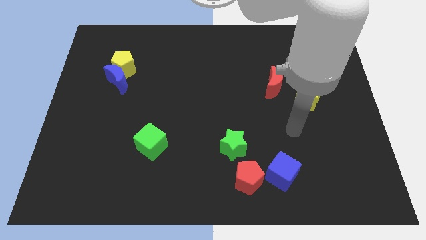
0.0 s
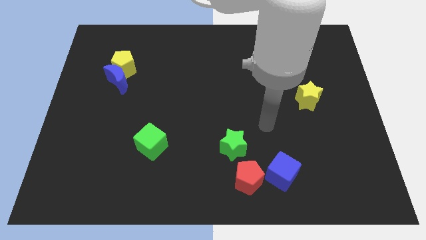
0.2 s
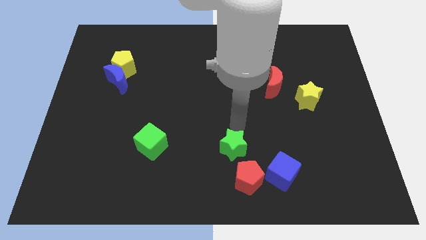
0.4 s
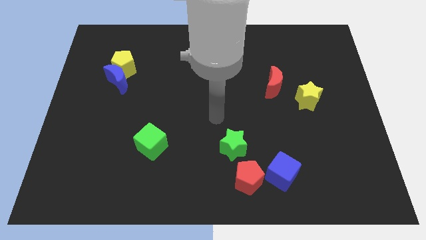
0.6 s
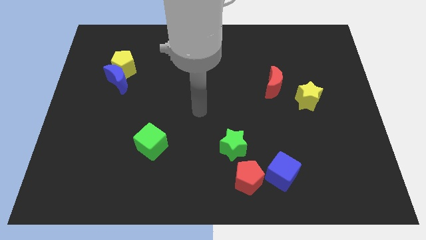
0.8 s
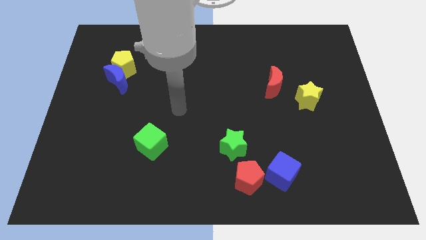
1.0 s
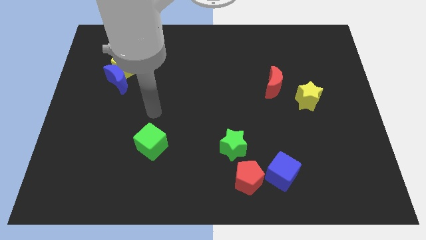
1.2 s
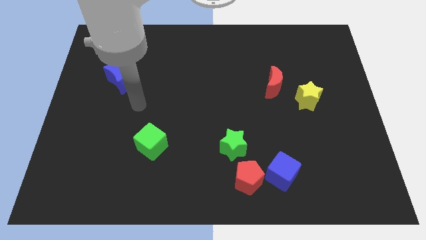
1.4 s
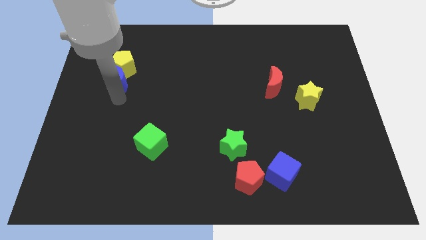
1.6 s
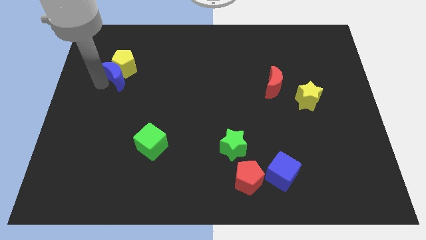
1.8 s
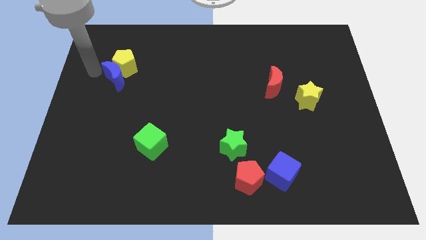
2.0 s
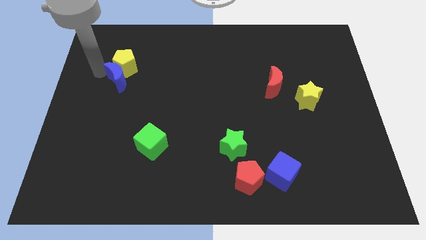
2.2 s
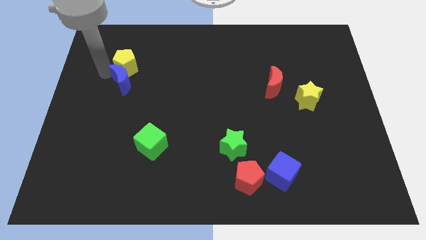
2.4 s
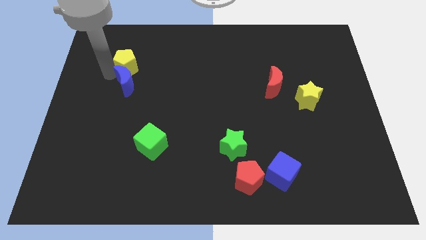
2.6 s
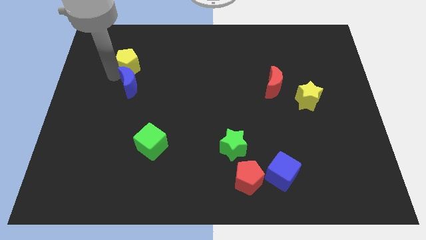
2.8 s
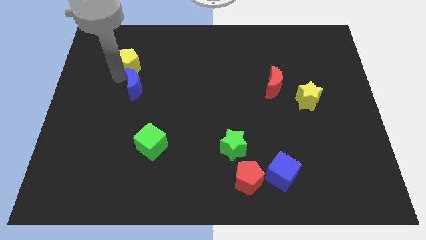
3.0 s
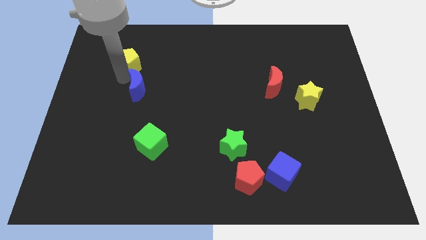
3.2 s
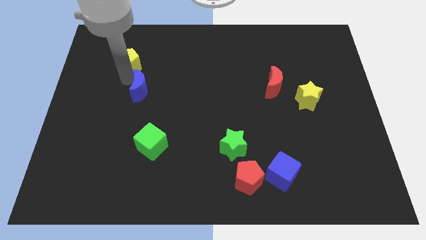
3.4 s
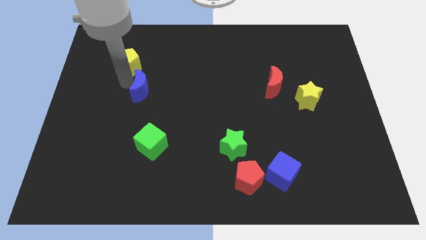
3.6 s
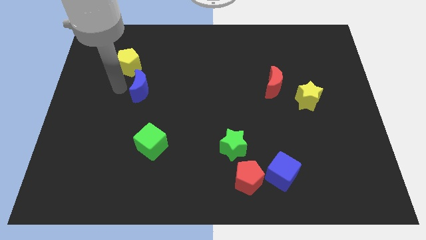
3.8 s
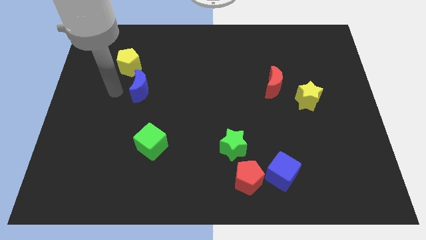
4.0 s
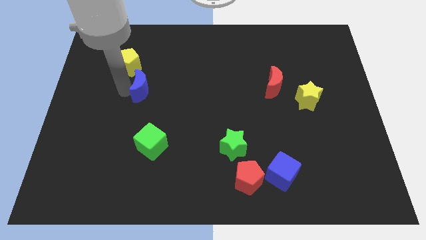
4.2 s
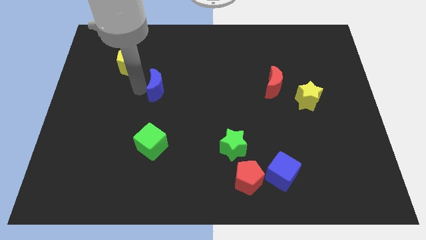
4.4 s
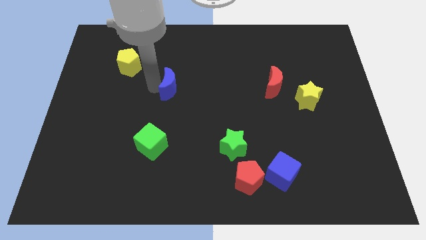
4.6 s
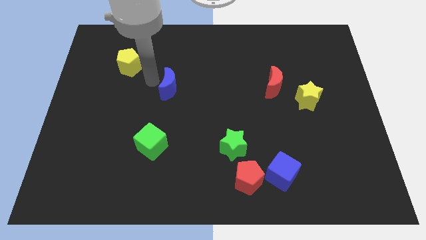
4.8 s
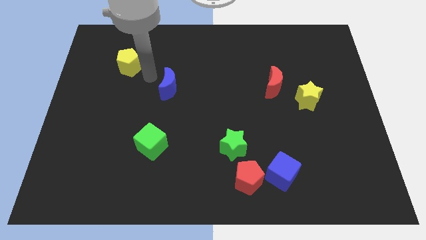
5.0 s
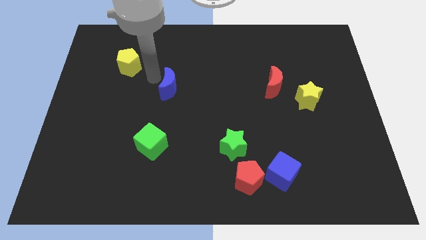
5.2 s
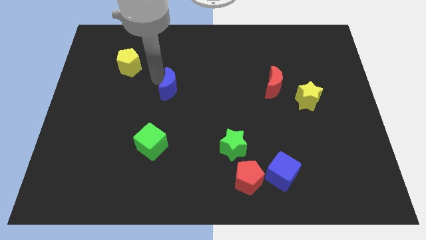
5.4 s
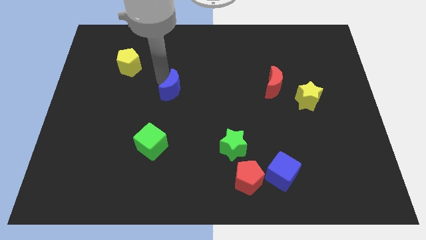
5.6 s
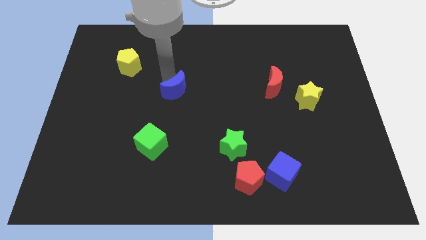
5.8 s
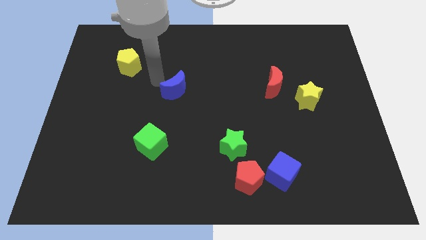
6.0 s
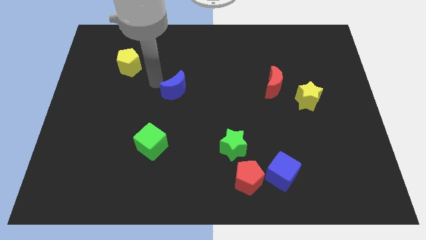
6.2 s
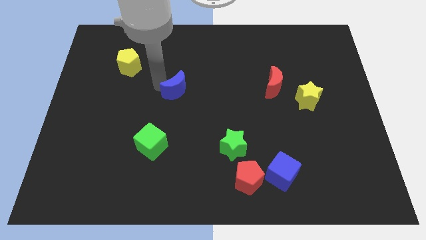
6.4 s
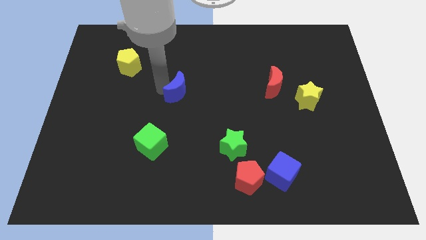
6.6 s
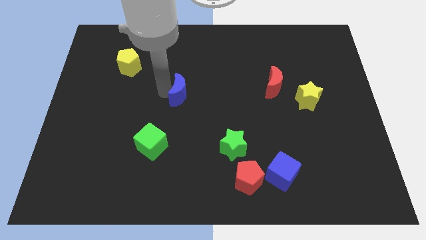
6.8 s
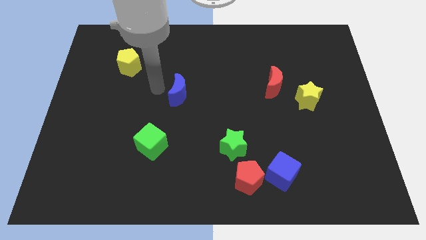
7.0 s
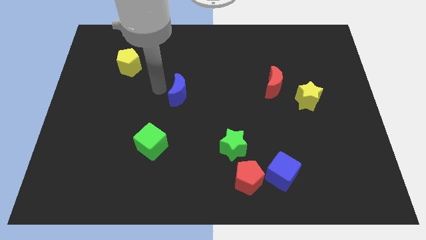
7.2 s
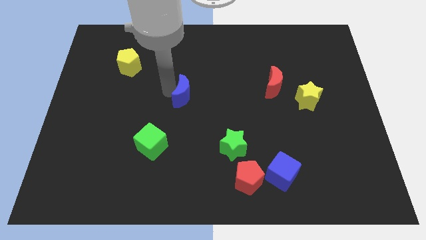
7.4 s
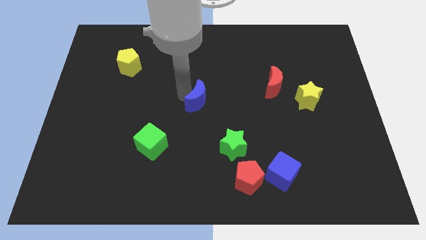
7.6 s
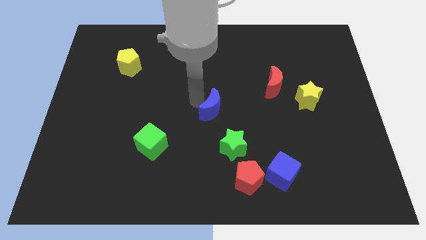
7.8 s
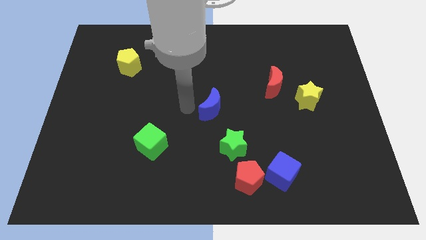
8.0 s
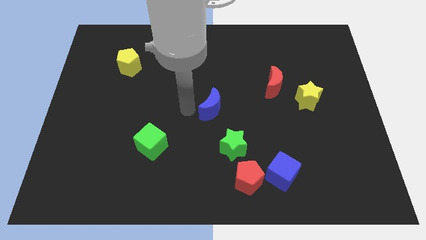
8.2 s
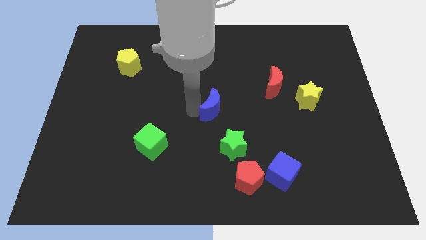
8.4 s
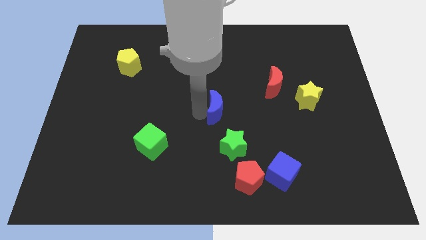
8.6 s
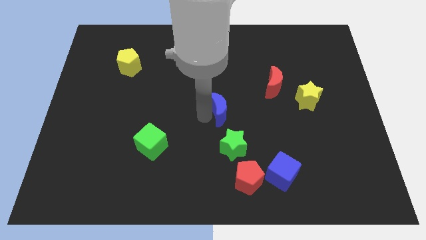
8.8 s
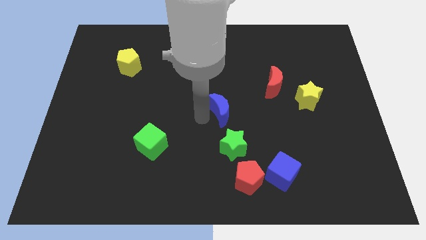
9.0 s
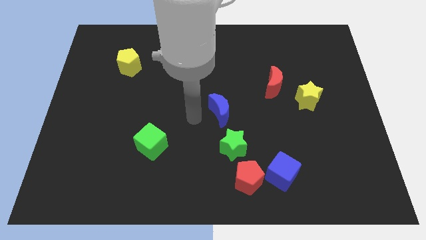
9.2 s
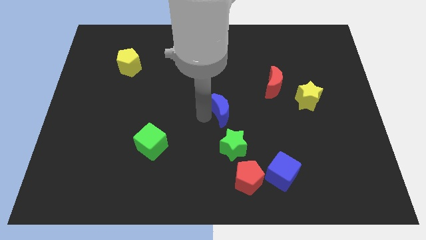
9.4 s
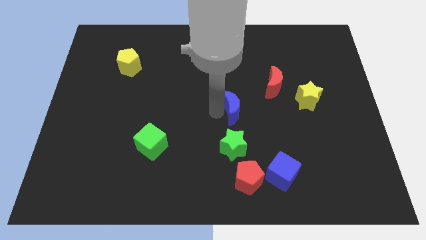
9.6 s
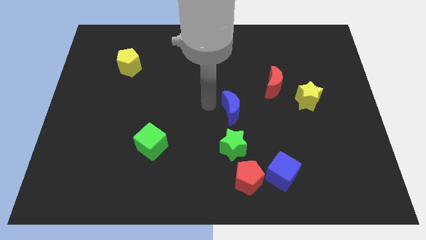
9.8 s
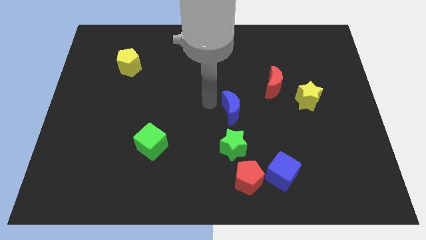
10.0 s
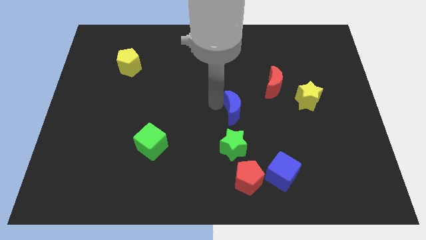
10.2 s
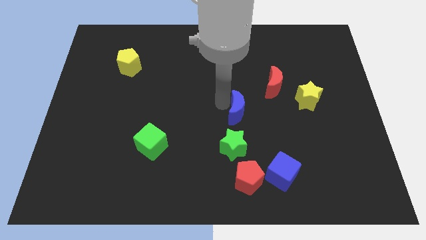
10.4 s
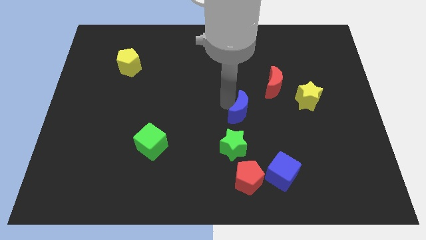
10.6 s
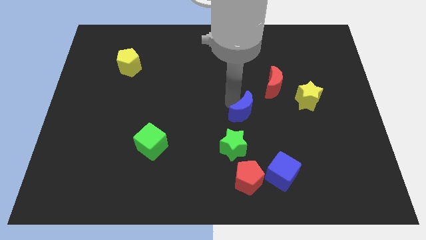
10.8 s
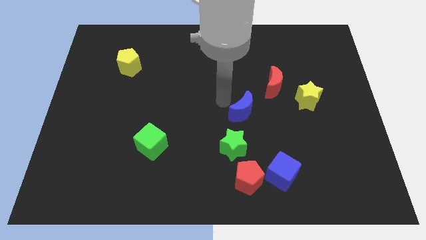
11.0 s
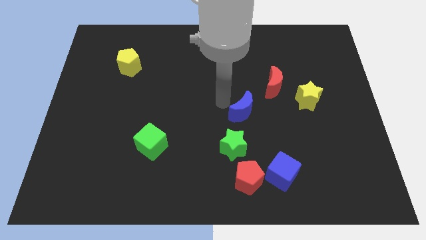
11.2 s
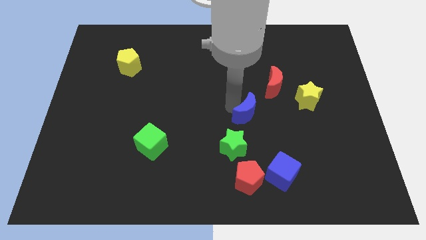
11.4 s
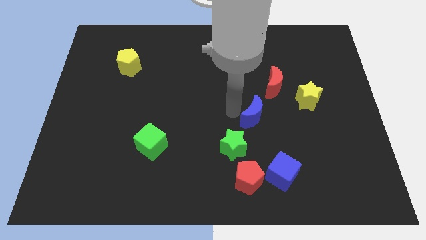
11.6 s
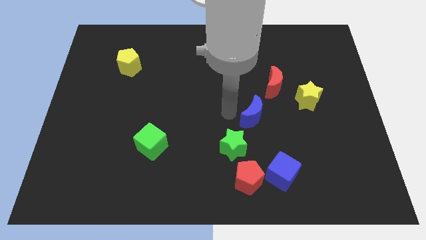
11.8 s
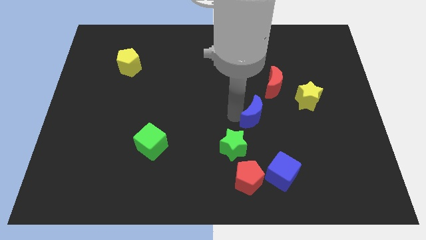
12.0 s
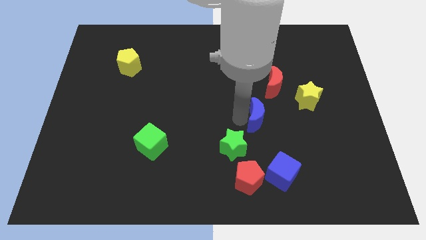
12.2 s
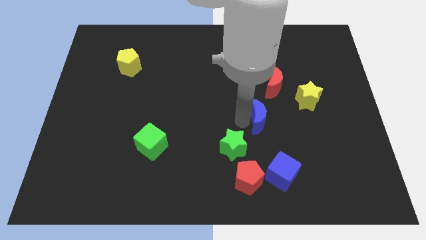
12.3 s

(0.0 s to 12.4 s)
push the blue moon to the bottom side of the red moon

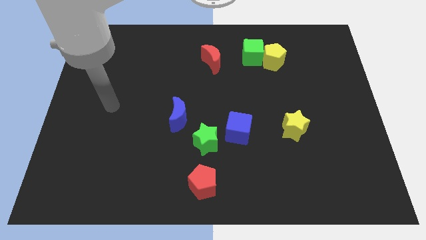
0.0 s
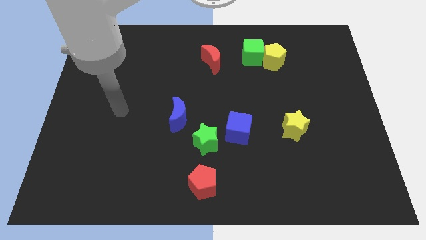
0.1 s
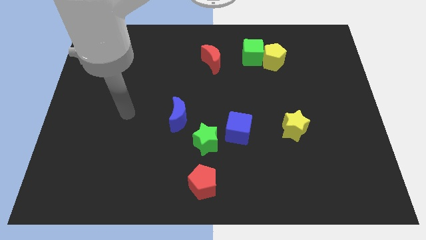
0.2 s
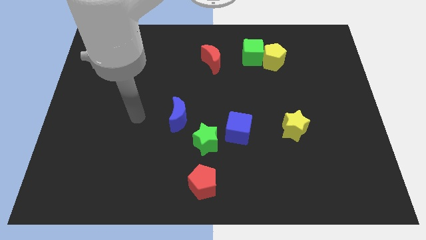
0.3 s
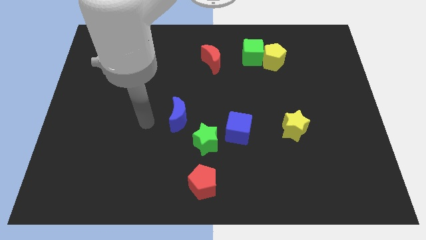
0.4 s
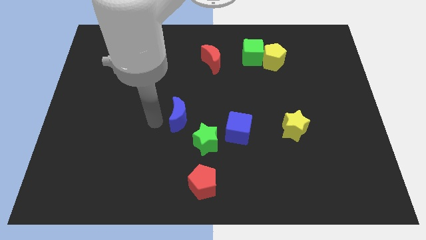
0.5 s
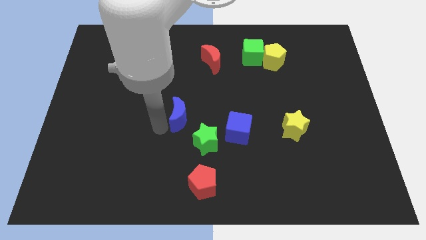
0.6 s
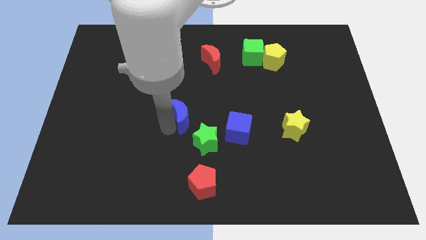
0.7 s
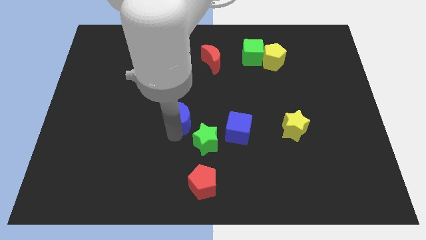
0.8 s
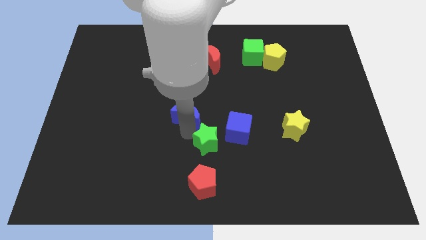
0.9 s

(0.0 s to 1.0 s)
move the green star to the bottom side of the blue moon

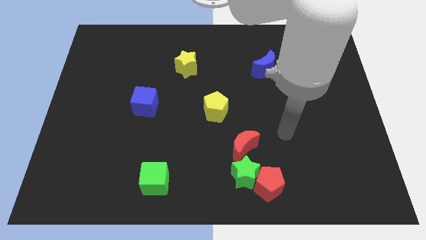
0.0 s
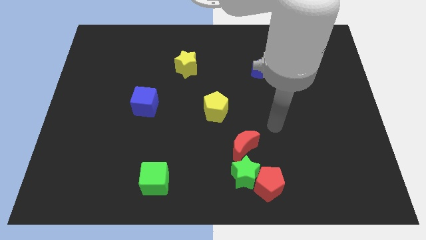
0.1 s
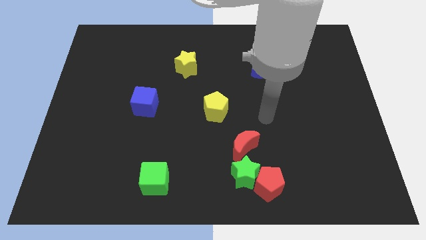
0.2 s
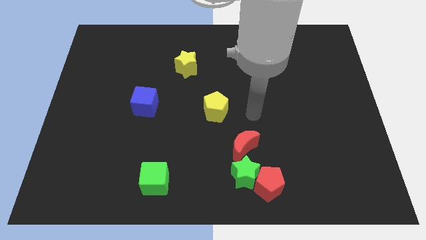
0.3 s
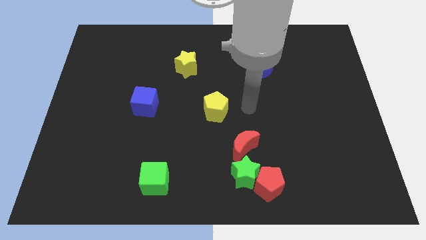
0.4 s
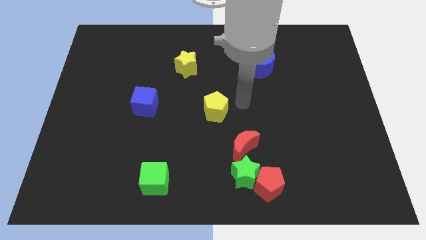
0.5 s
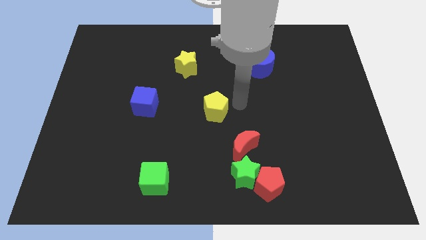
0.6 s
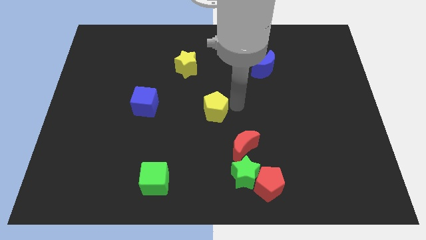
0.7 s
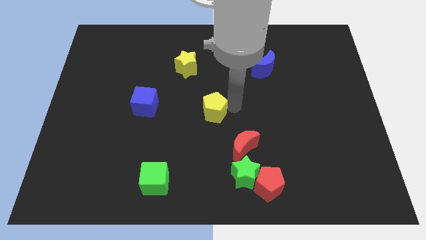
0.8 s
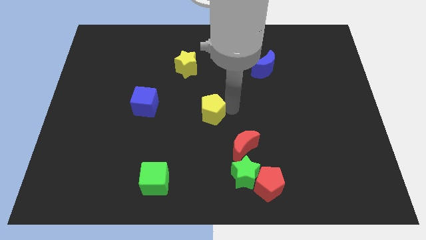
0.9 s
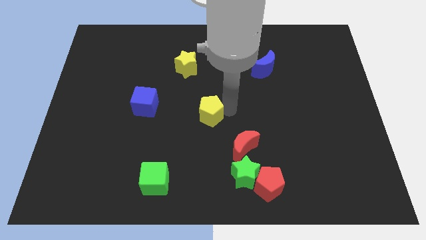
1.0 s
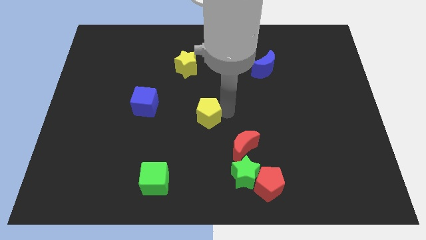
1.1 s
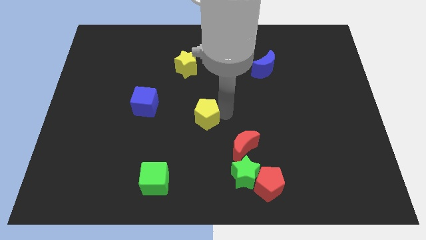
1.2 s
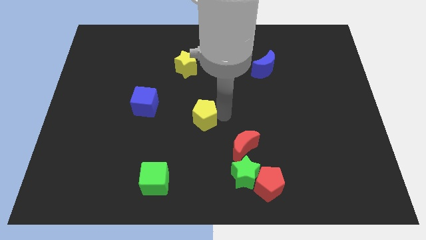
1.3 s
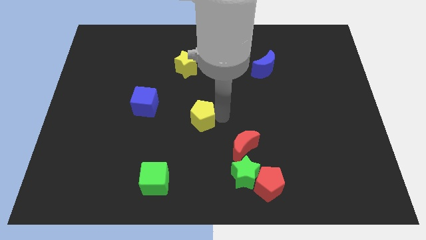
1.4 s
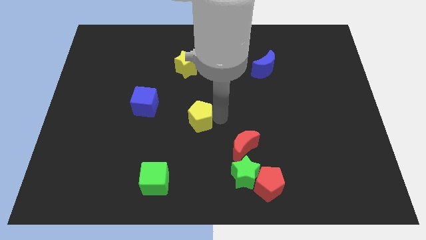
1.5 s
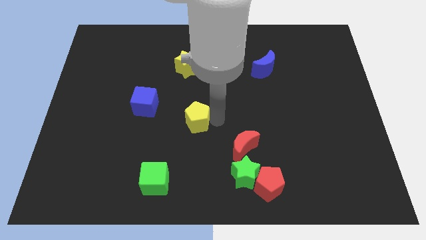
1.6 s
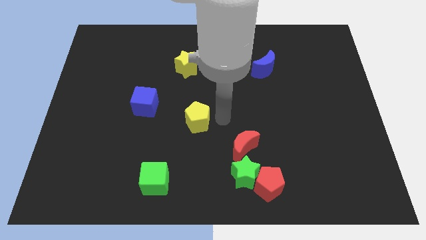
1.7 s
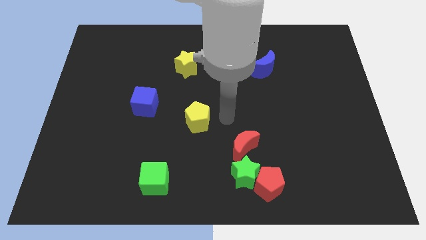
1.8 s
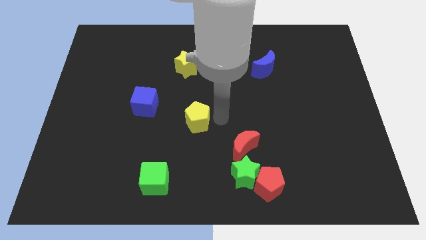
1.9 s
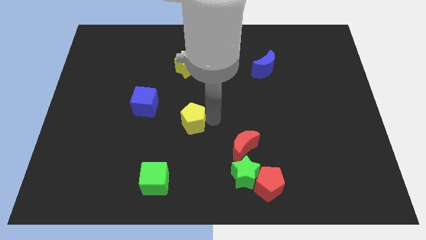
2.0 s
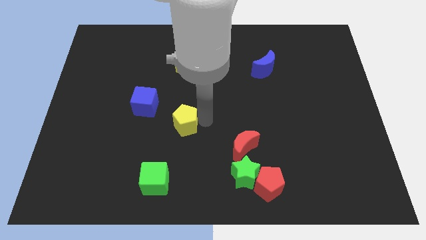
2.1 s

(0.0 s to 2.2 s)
move the yellow pentagon to the bottom right of the blue cube
